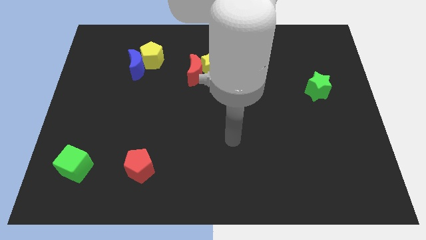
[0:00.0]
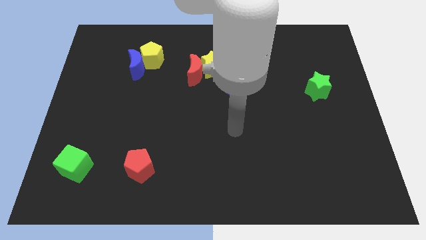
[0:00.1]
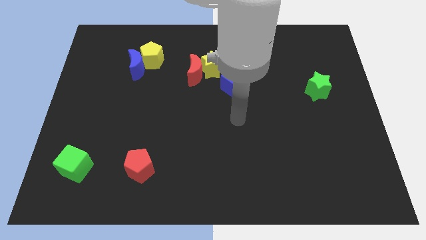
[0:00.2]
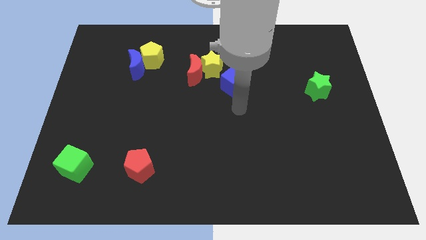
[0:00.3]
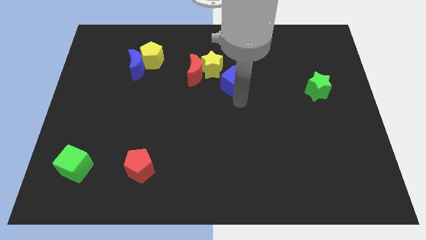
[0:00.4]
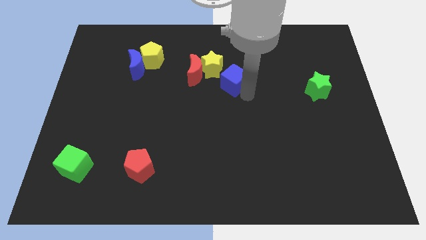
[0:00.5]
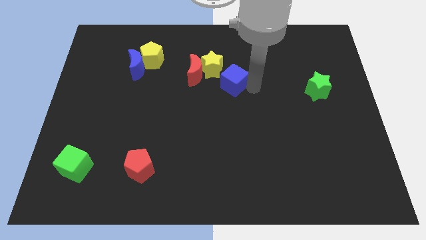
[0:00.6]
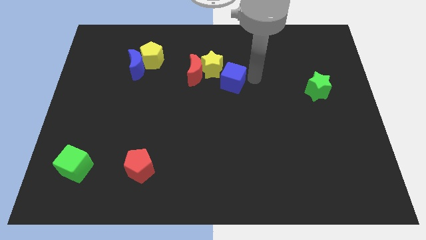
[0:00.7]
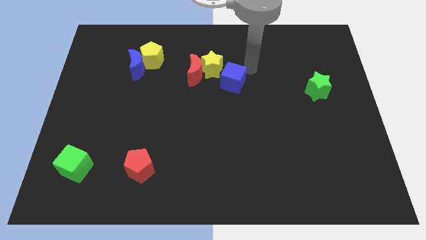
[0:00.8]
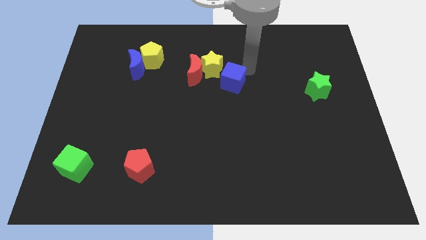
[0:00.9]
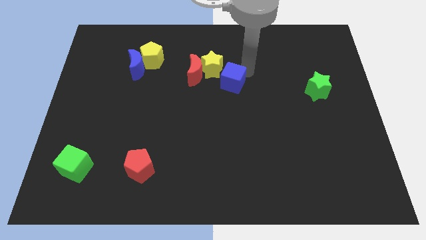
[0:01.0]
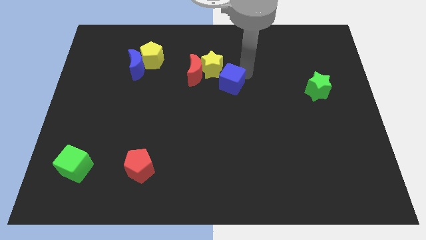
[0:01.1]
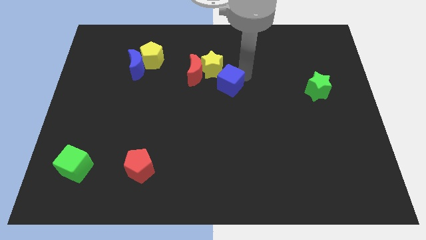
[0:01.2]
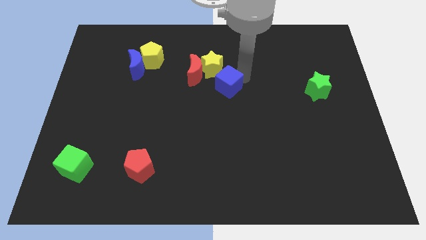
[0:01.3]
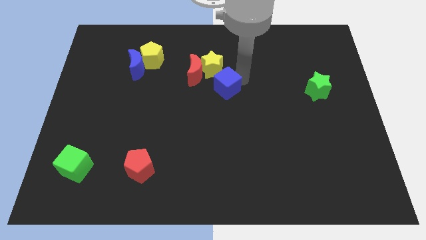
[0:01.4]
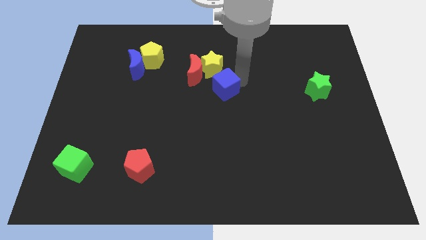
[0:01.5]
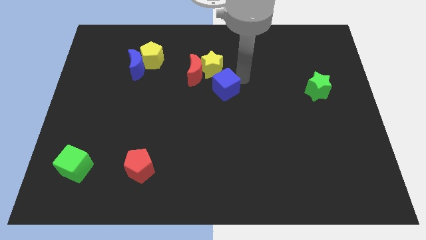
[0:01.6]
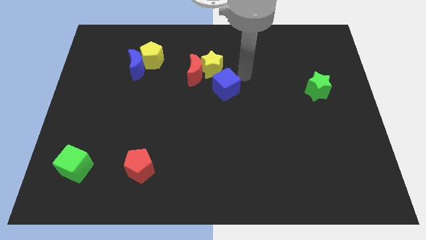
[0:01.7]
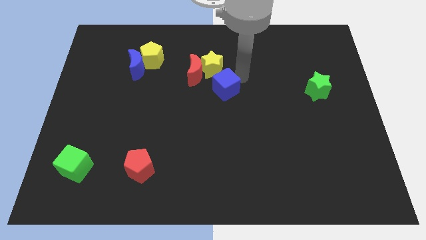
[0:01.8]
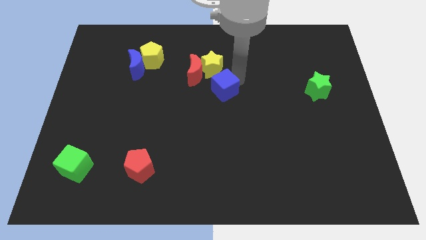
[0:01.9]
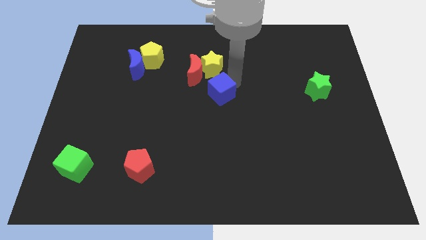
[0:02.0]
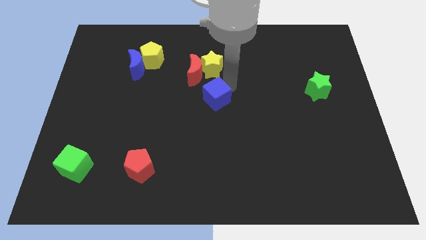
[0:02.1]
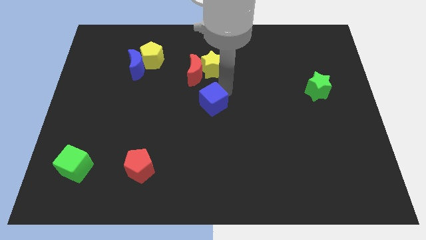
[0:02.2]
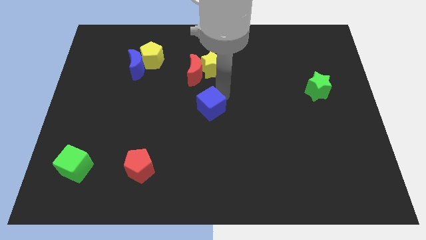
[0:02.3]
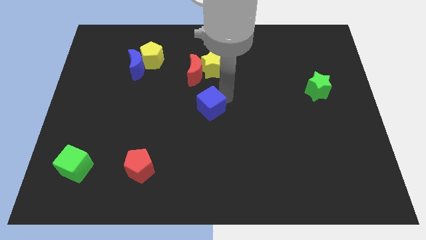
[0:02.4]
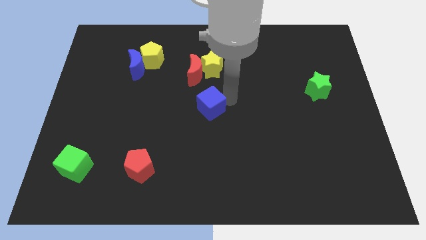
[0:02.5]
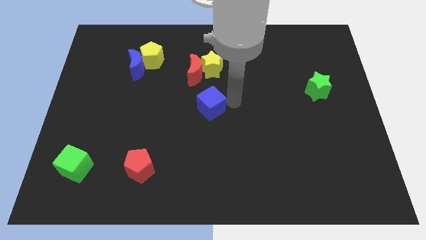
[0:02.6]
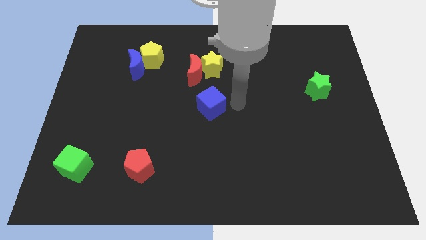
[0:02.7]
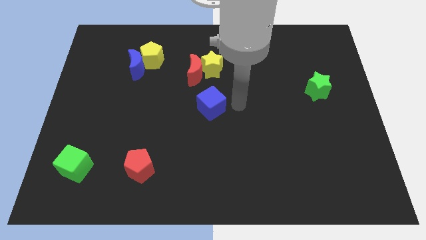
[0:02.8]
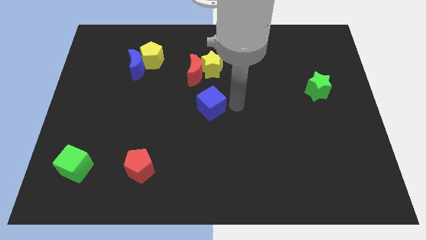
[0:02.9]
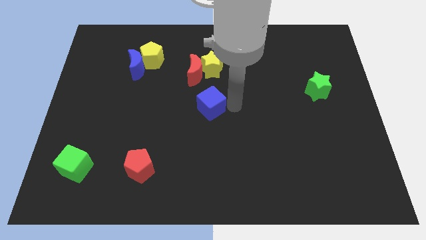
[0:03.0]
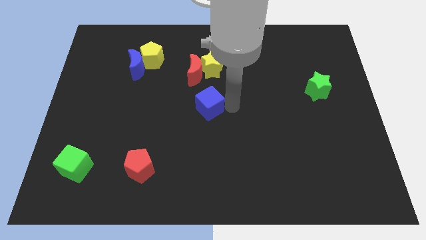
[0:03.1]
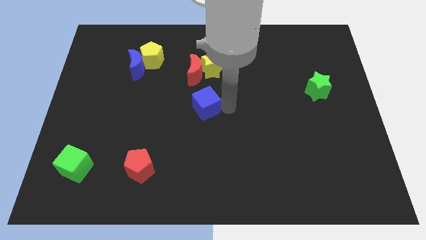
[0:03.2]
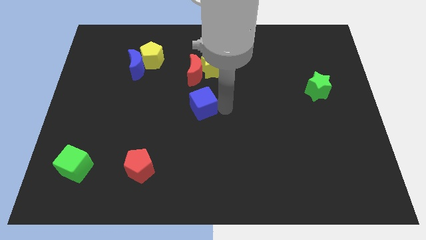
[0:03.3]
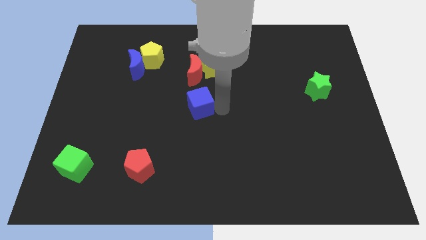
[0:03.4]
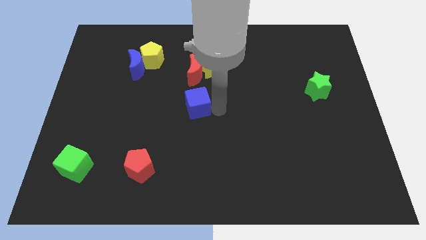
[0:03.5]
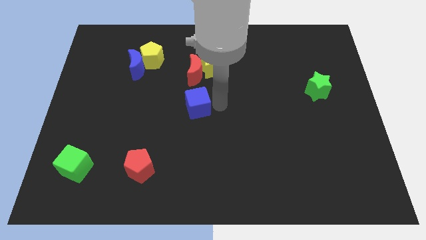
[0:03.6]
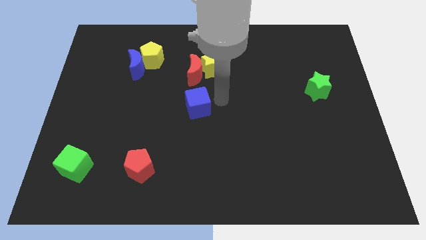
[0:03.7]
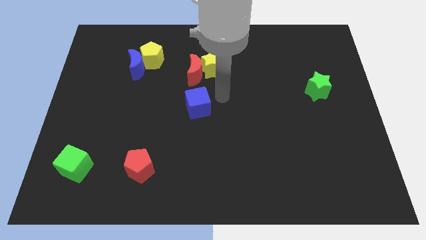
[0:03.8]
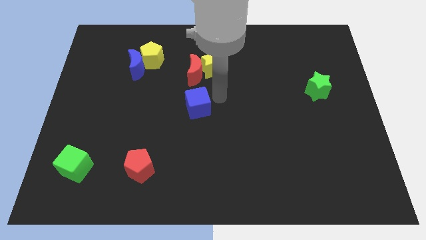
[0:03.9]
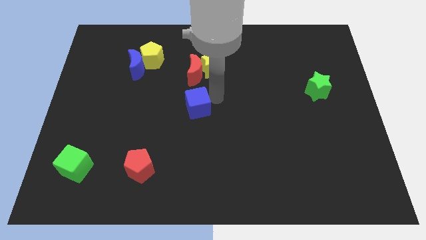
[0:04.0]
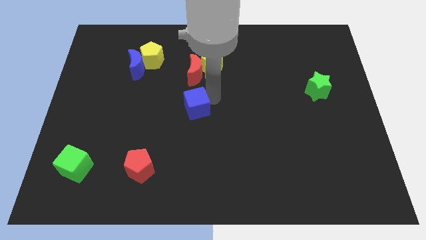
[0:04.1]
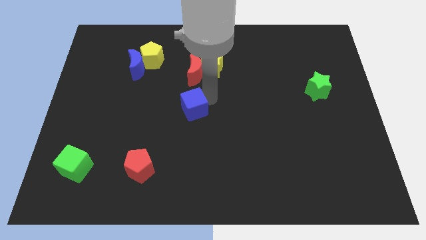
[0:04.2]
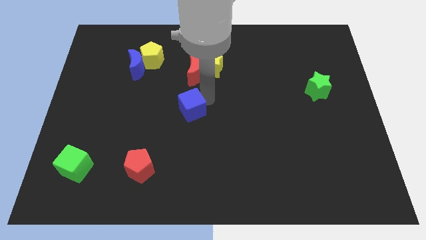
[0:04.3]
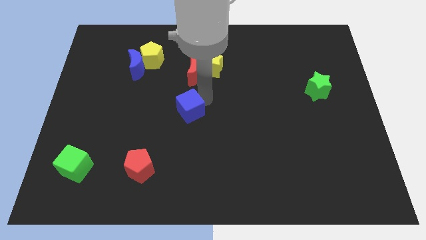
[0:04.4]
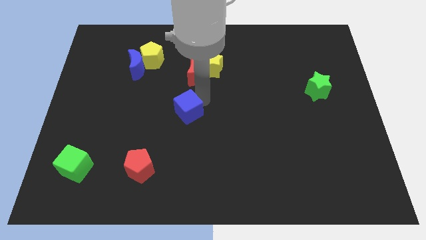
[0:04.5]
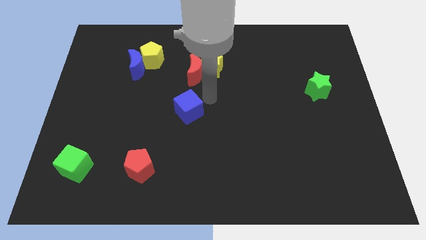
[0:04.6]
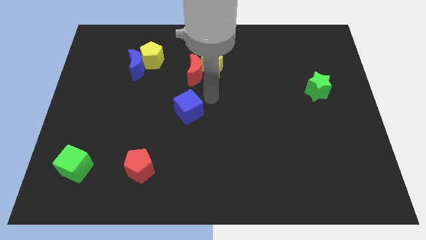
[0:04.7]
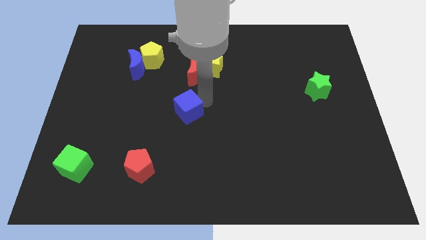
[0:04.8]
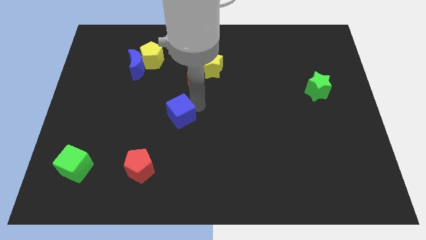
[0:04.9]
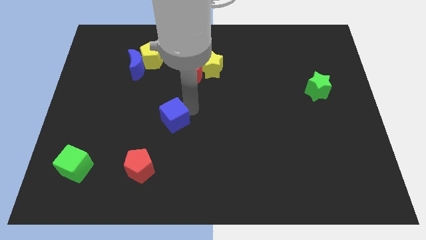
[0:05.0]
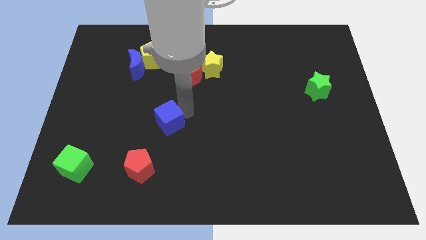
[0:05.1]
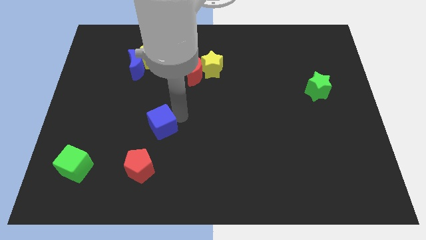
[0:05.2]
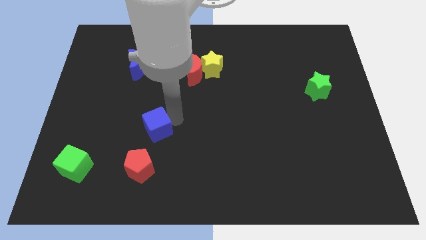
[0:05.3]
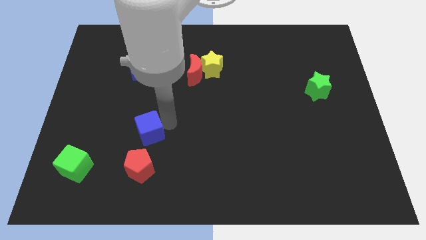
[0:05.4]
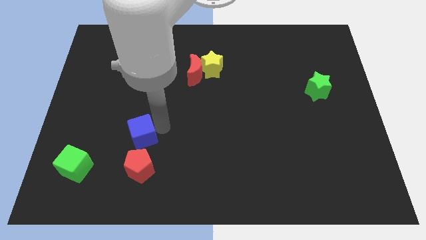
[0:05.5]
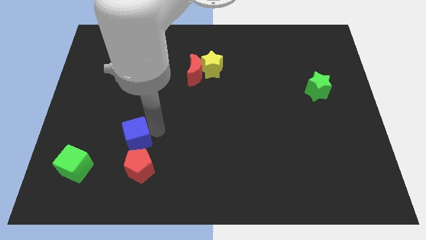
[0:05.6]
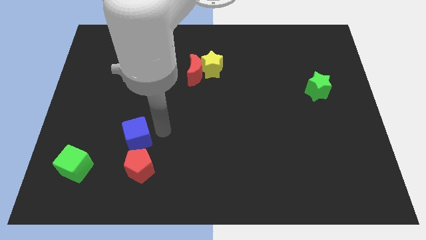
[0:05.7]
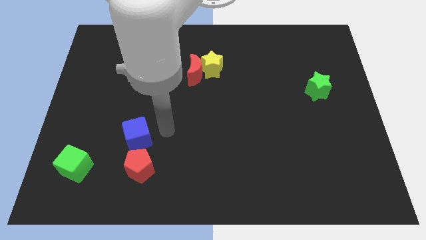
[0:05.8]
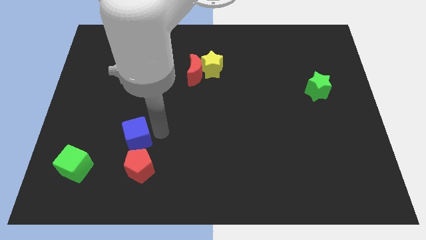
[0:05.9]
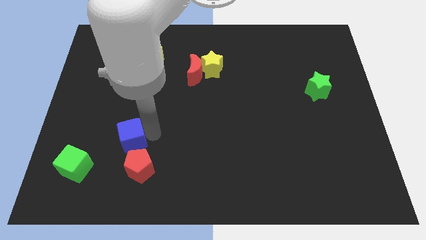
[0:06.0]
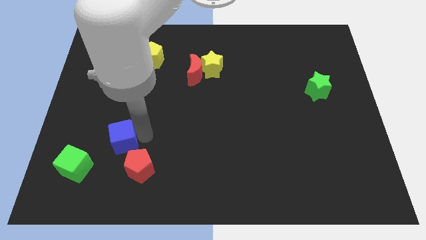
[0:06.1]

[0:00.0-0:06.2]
slide the blue cube to the top right side of the green cube

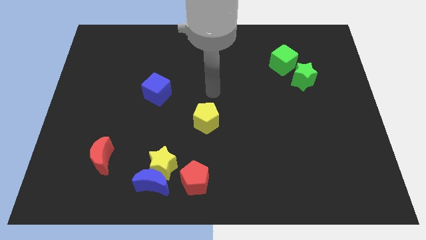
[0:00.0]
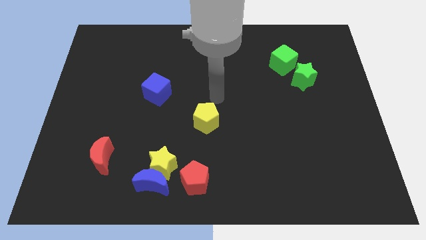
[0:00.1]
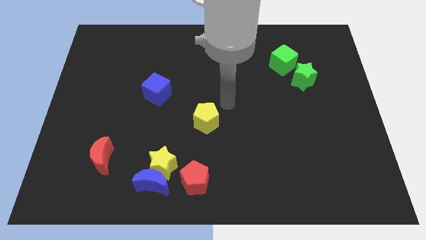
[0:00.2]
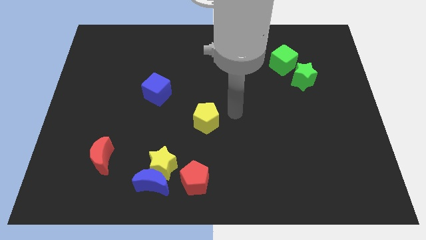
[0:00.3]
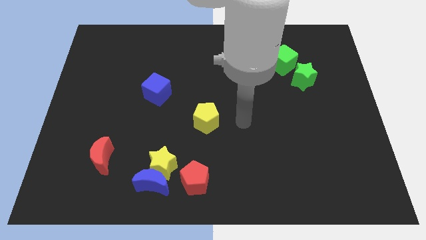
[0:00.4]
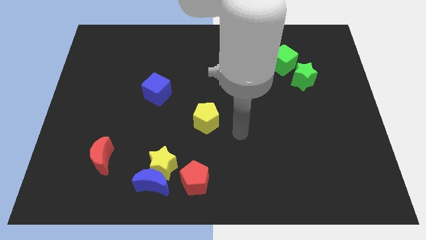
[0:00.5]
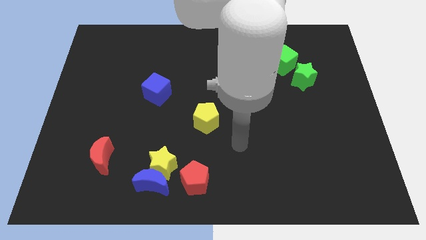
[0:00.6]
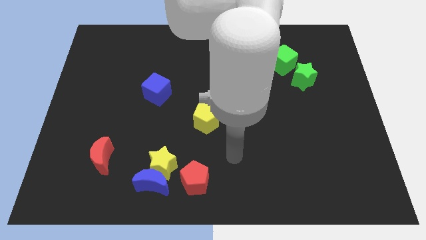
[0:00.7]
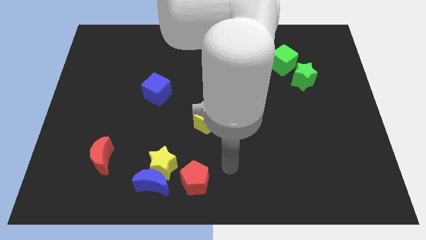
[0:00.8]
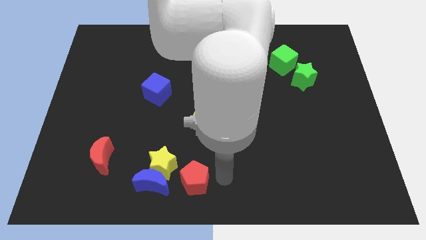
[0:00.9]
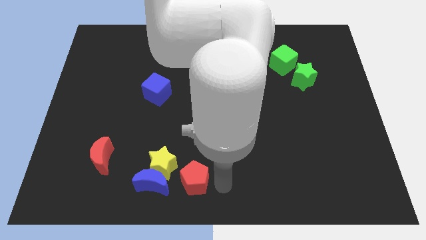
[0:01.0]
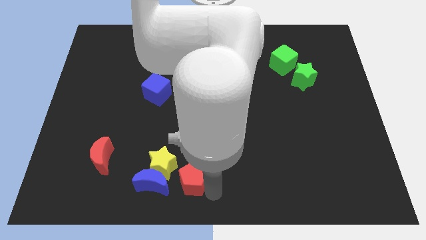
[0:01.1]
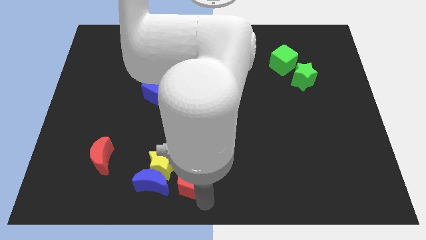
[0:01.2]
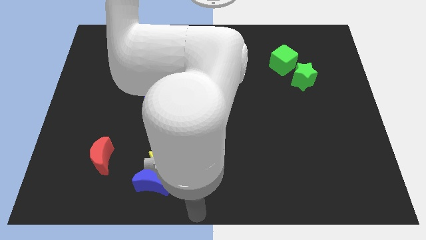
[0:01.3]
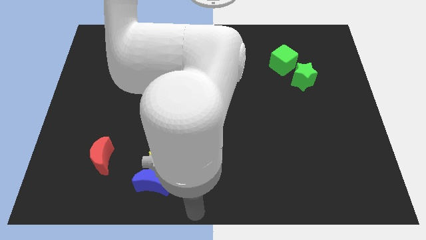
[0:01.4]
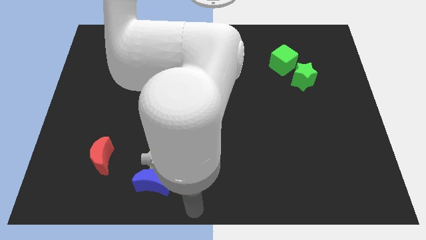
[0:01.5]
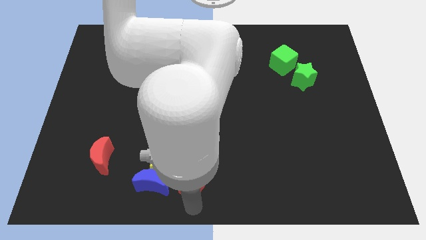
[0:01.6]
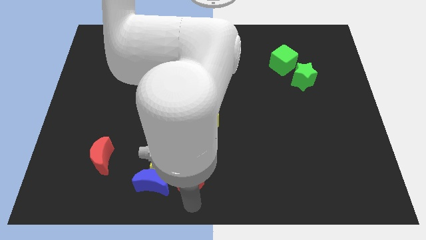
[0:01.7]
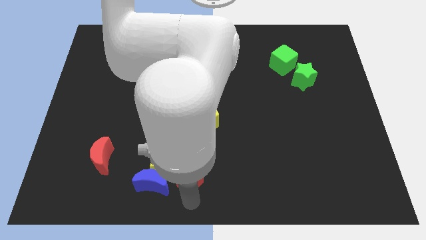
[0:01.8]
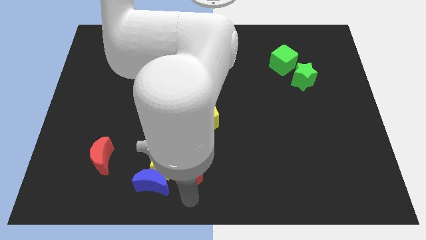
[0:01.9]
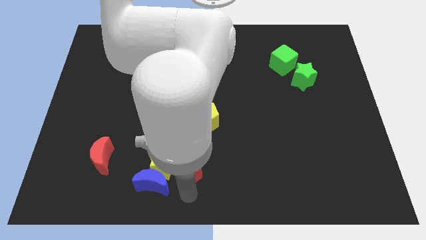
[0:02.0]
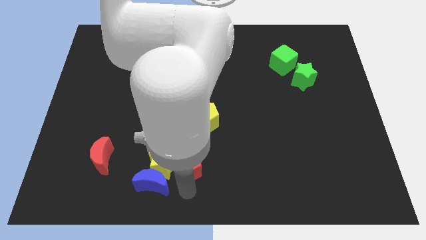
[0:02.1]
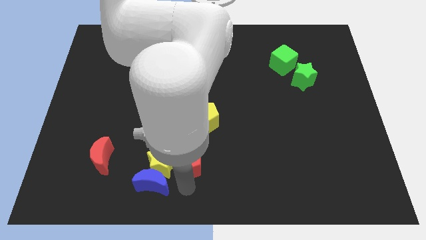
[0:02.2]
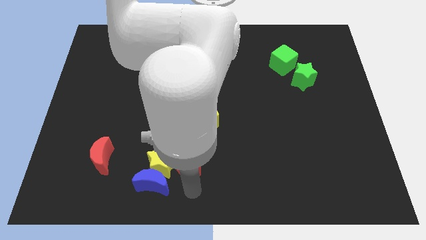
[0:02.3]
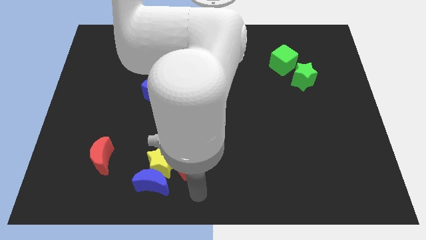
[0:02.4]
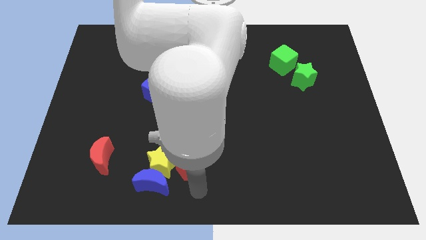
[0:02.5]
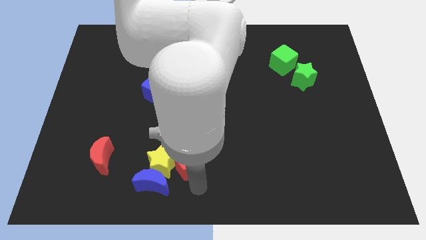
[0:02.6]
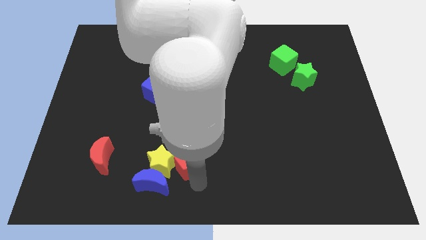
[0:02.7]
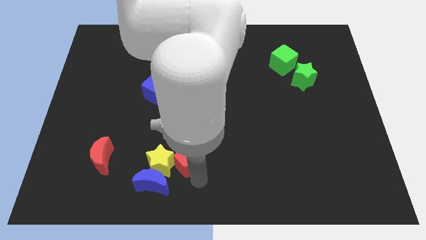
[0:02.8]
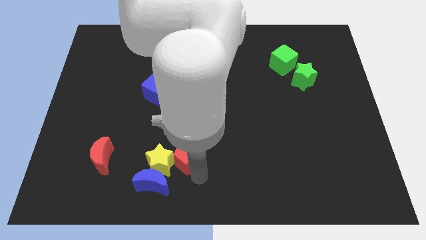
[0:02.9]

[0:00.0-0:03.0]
slide the red pentagon to the bottom left of the yellow pentagon
